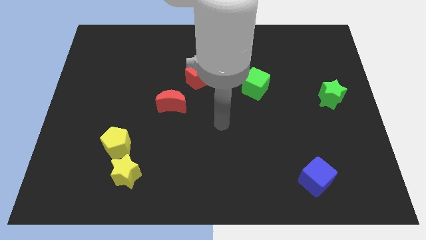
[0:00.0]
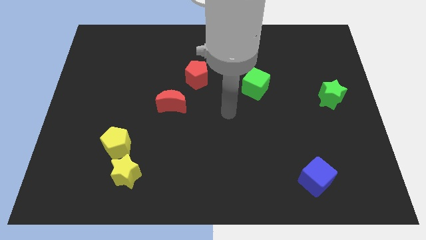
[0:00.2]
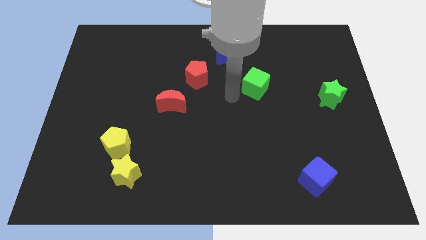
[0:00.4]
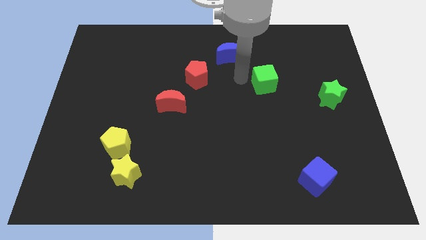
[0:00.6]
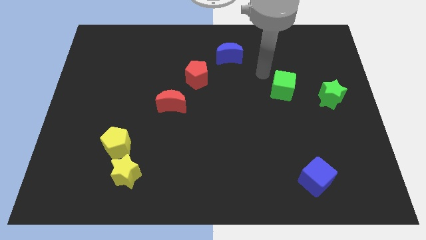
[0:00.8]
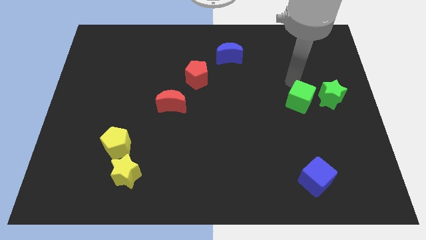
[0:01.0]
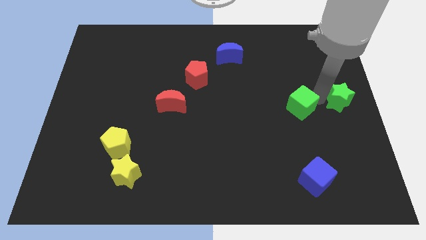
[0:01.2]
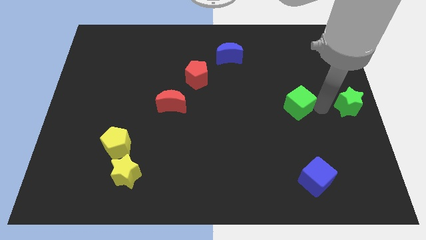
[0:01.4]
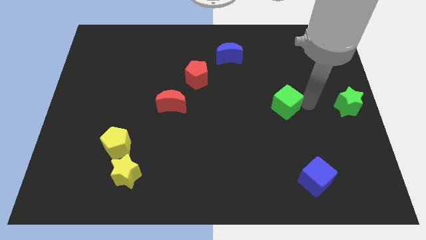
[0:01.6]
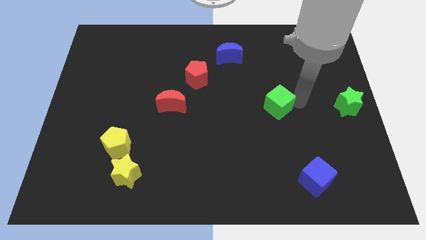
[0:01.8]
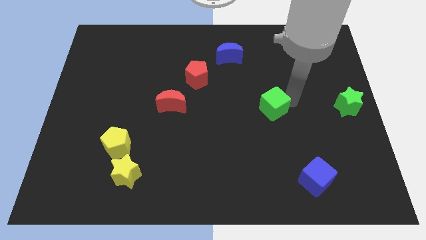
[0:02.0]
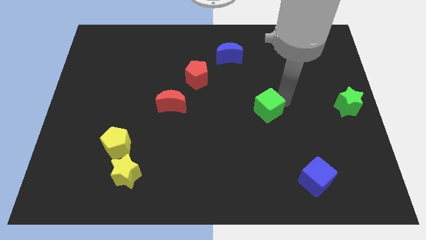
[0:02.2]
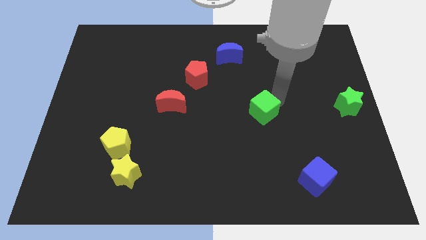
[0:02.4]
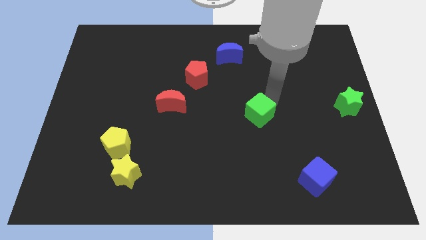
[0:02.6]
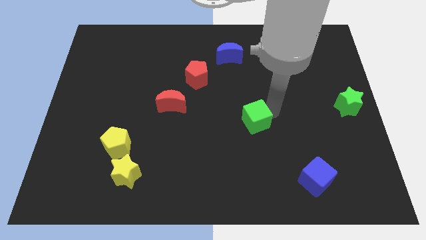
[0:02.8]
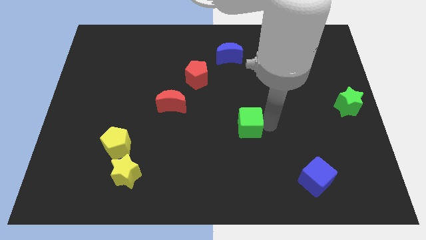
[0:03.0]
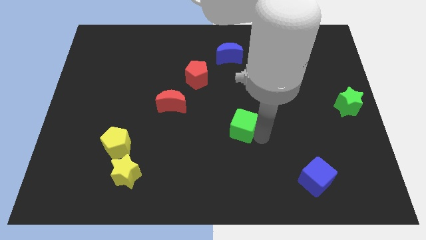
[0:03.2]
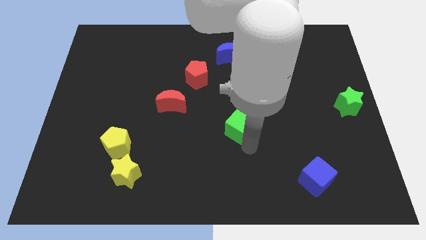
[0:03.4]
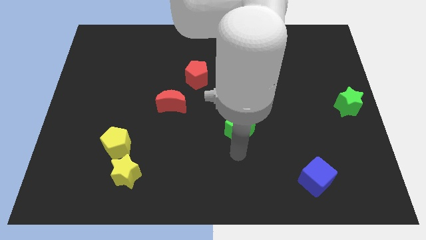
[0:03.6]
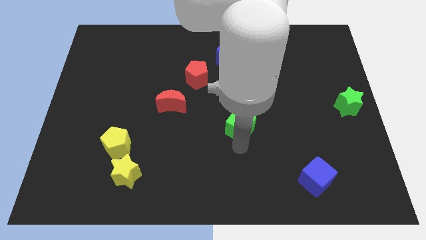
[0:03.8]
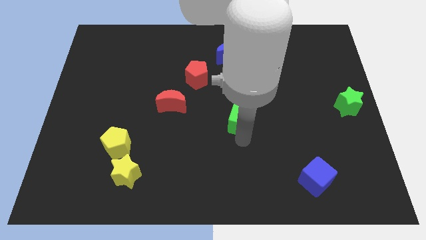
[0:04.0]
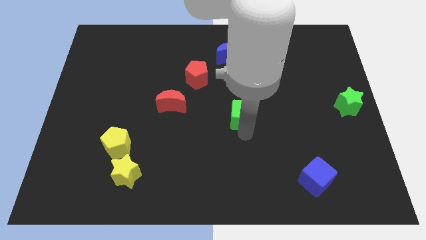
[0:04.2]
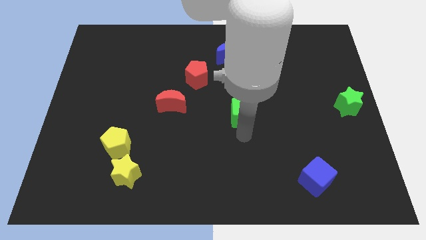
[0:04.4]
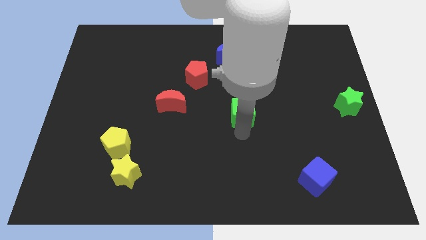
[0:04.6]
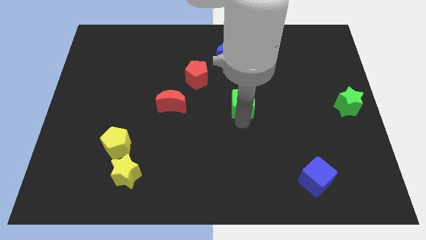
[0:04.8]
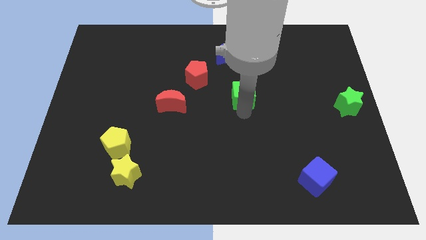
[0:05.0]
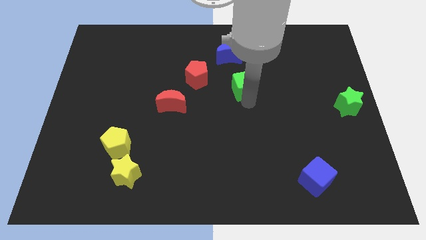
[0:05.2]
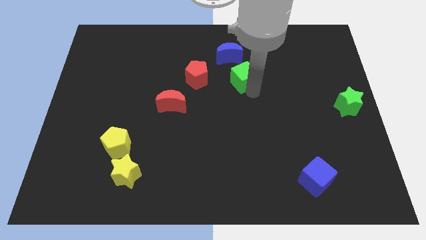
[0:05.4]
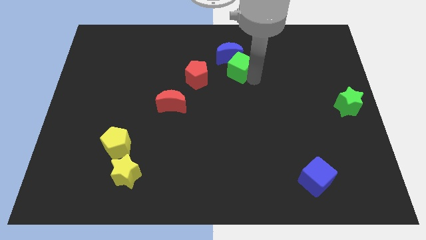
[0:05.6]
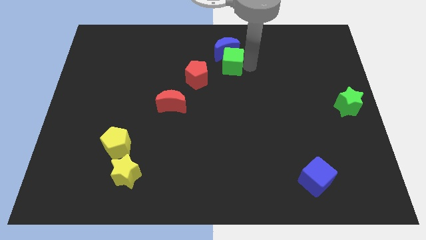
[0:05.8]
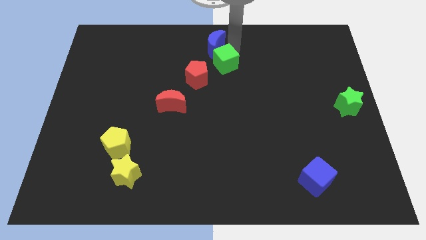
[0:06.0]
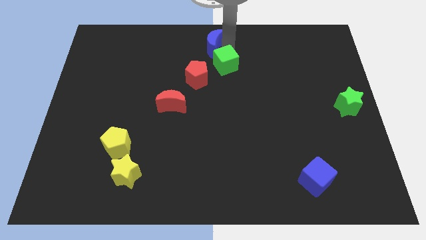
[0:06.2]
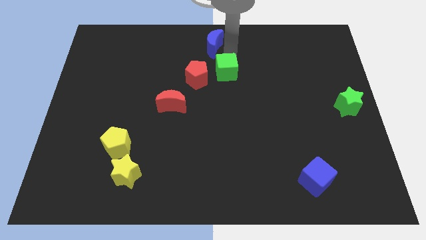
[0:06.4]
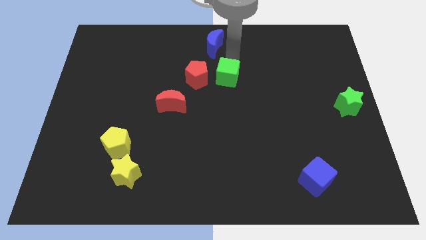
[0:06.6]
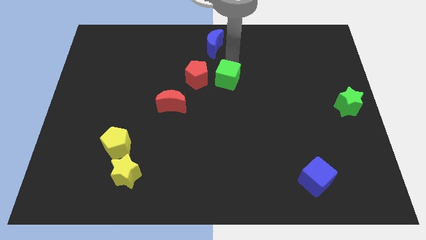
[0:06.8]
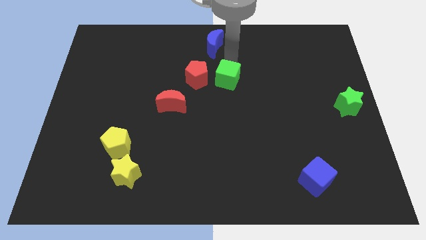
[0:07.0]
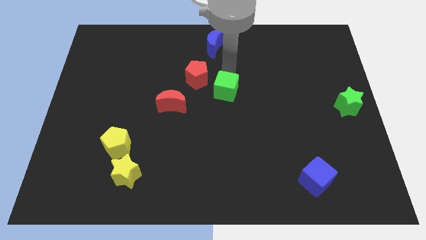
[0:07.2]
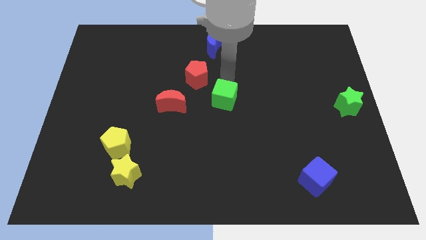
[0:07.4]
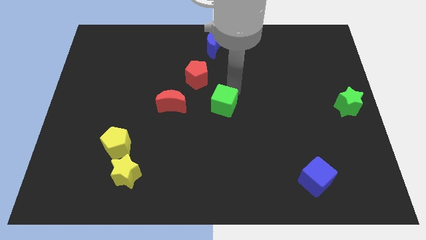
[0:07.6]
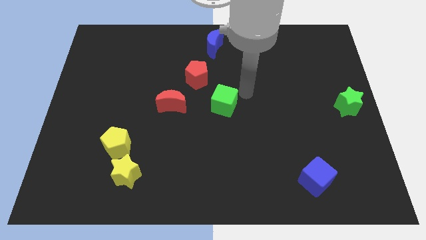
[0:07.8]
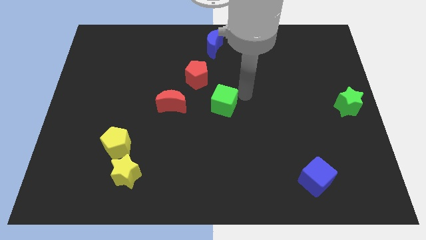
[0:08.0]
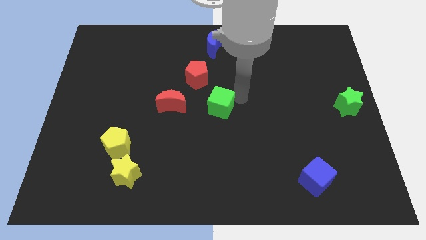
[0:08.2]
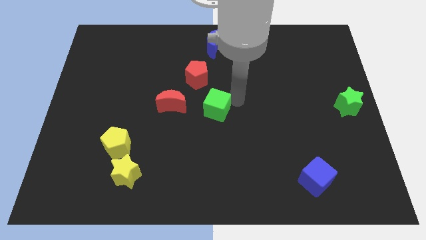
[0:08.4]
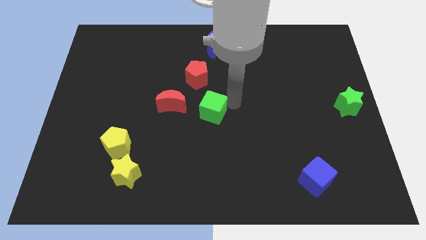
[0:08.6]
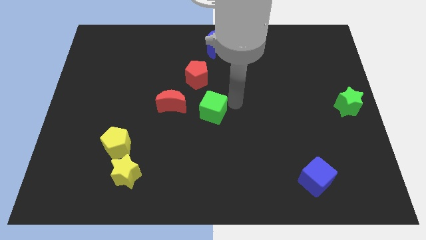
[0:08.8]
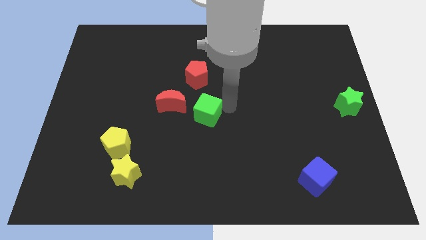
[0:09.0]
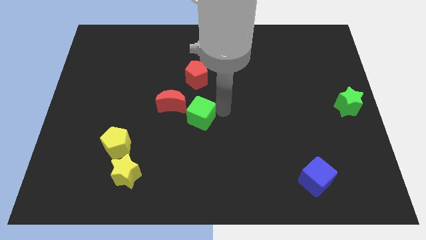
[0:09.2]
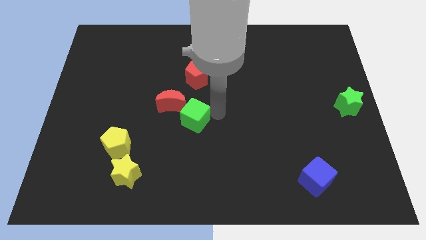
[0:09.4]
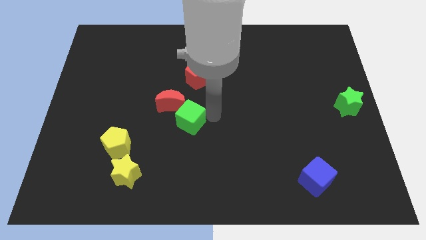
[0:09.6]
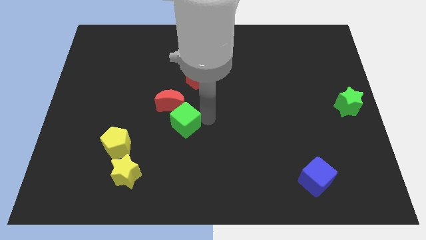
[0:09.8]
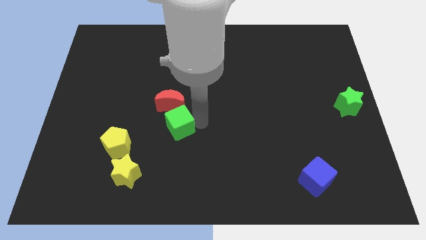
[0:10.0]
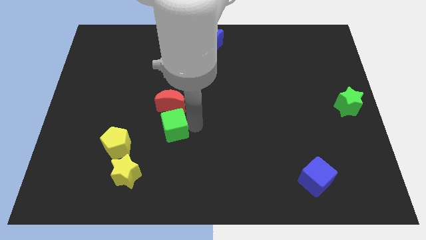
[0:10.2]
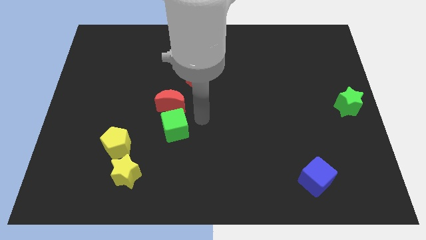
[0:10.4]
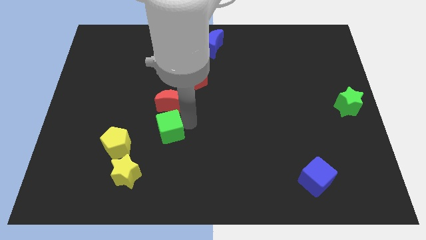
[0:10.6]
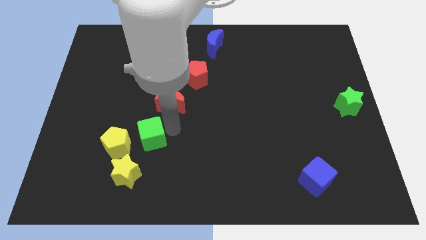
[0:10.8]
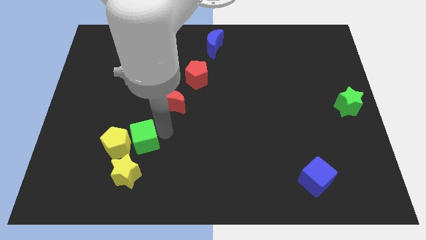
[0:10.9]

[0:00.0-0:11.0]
move the green cube to the yellow pentagon

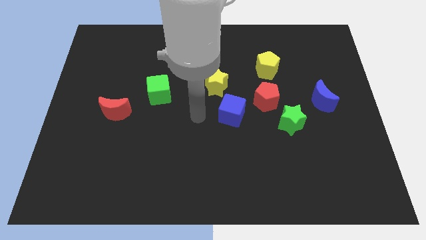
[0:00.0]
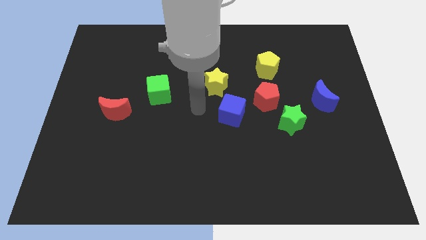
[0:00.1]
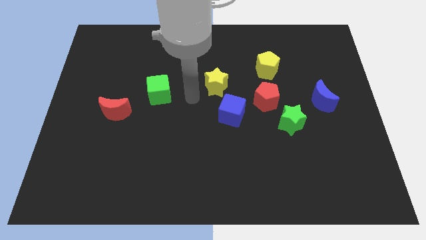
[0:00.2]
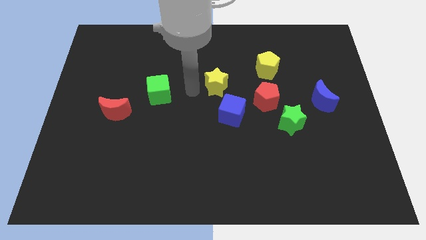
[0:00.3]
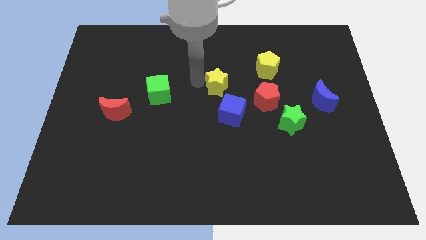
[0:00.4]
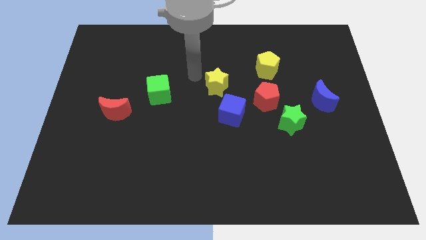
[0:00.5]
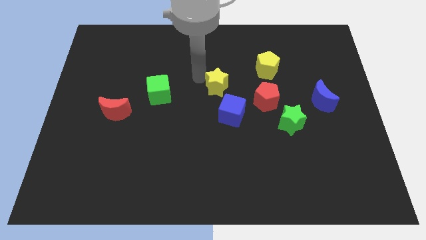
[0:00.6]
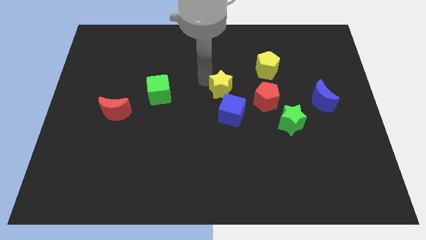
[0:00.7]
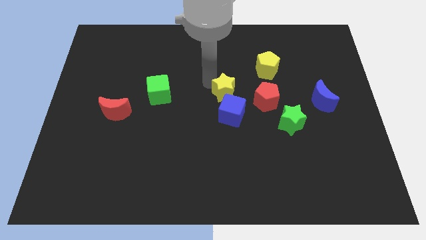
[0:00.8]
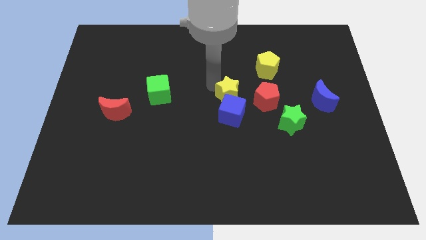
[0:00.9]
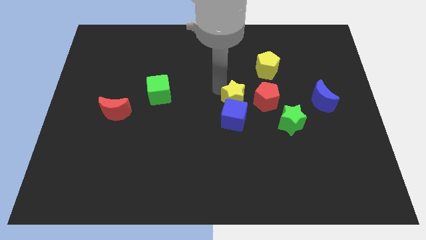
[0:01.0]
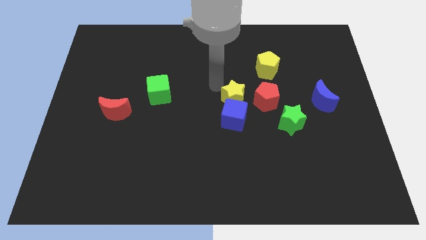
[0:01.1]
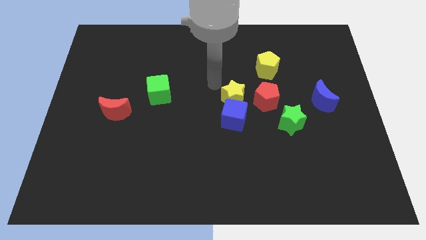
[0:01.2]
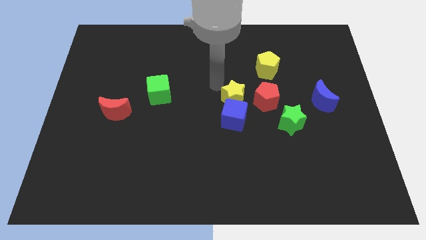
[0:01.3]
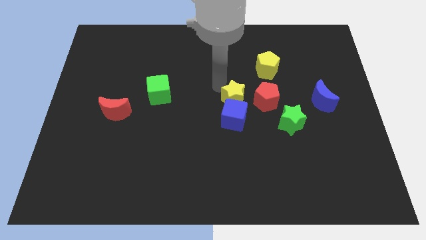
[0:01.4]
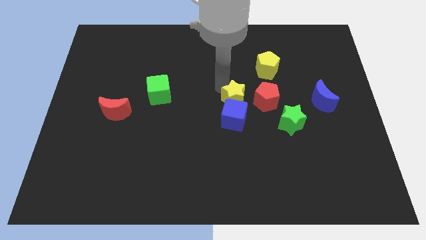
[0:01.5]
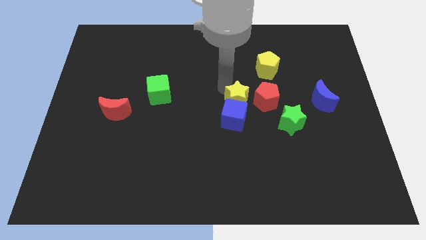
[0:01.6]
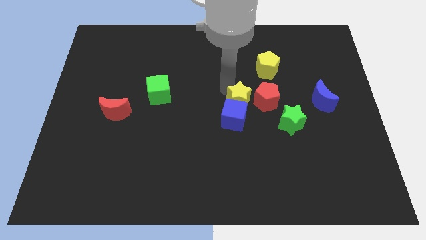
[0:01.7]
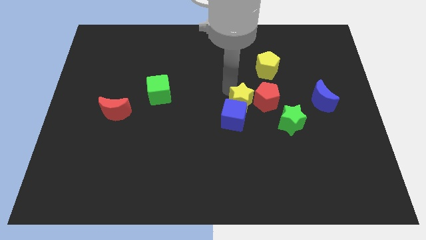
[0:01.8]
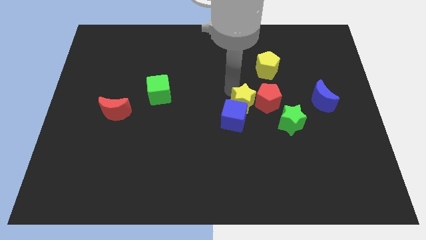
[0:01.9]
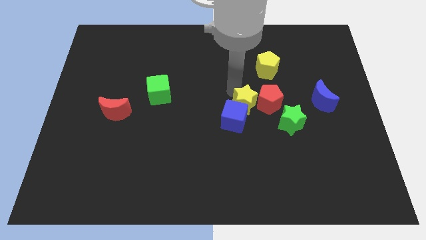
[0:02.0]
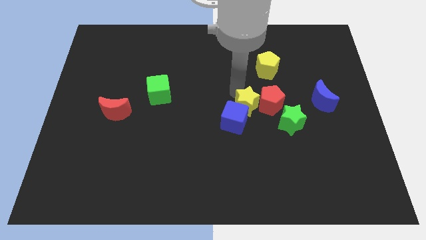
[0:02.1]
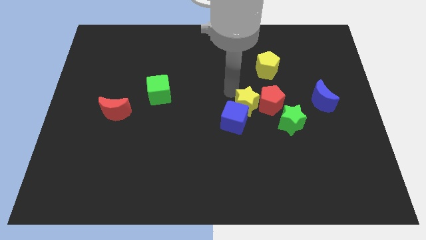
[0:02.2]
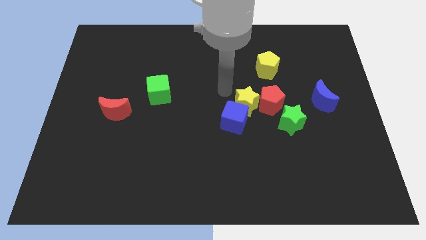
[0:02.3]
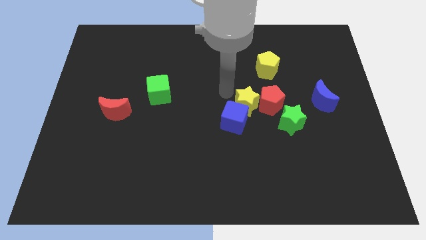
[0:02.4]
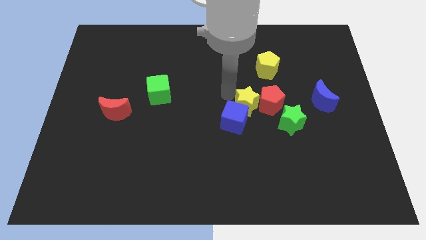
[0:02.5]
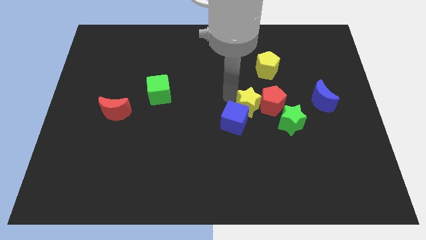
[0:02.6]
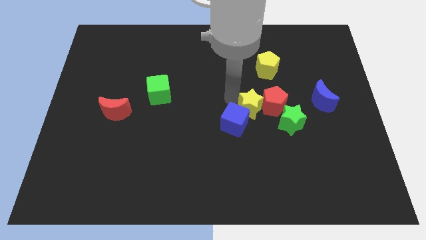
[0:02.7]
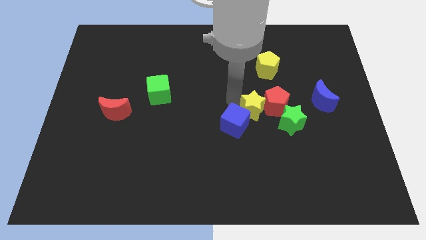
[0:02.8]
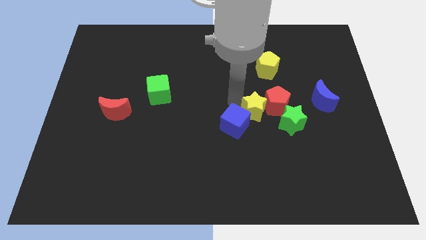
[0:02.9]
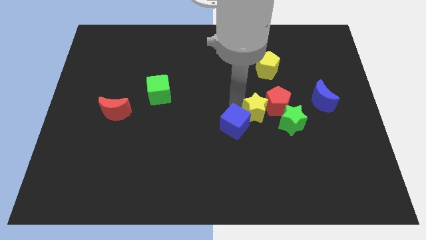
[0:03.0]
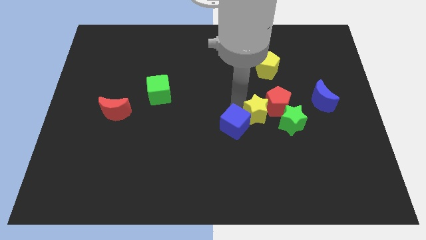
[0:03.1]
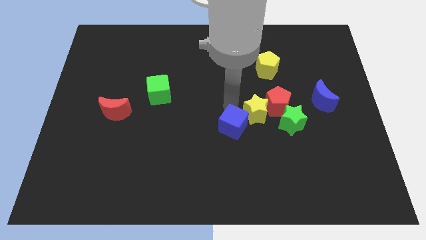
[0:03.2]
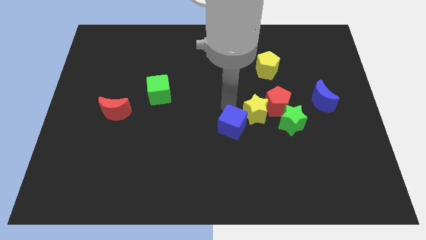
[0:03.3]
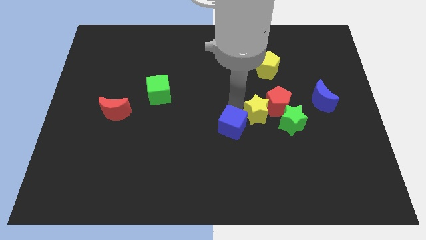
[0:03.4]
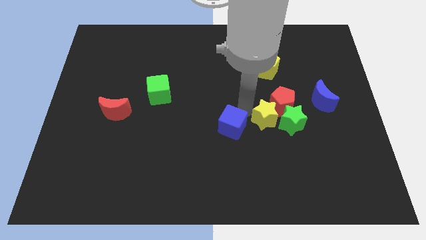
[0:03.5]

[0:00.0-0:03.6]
move the yellow star close to the green star
